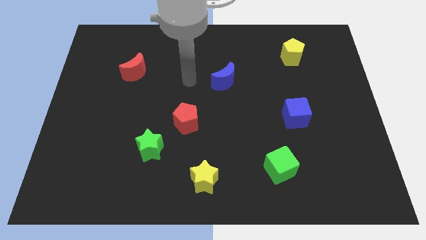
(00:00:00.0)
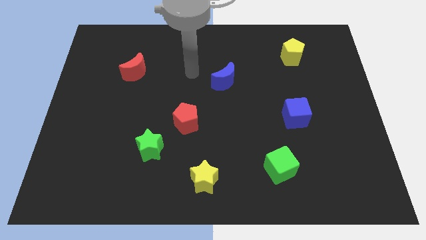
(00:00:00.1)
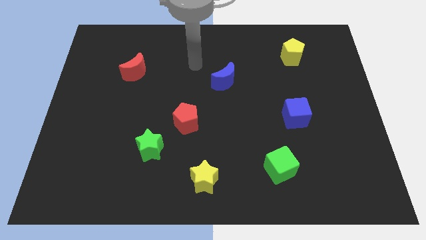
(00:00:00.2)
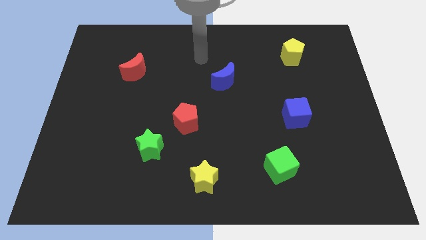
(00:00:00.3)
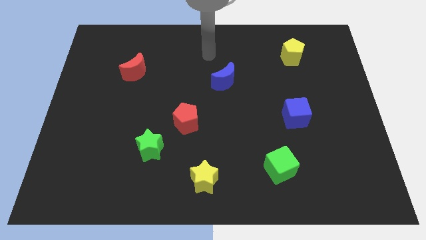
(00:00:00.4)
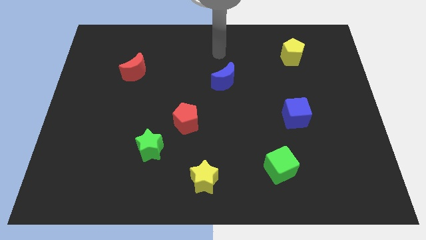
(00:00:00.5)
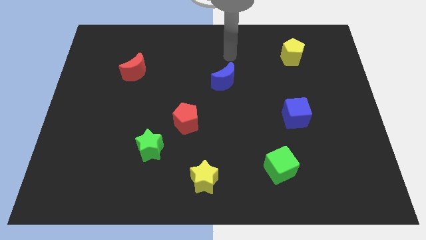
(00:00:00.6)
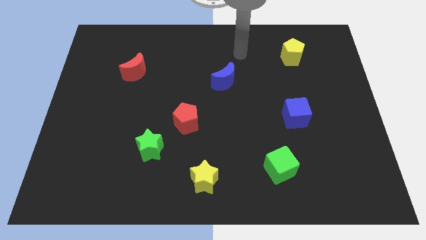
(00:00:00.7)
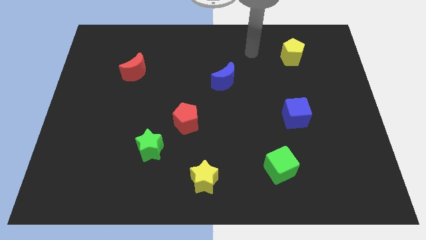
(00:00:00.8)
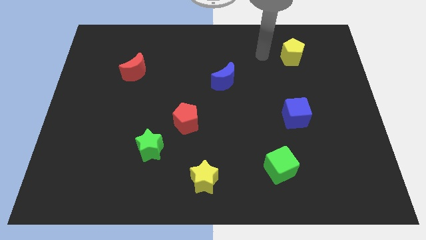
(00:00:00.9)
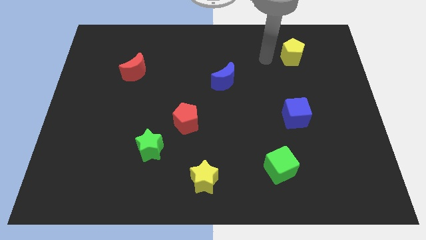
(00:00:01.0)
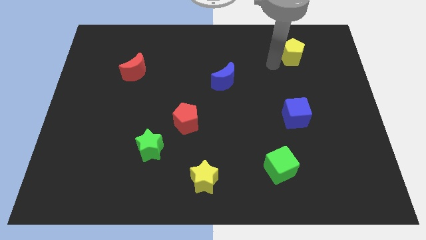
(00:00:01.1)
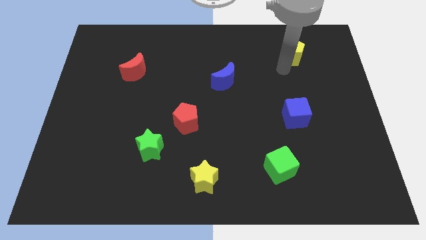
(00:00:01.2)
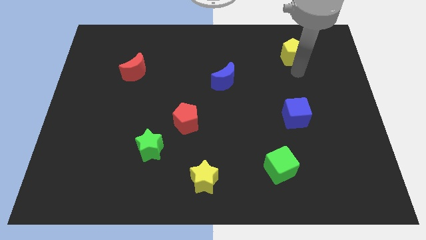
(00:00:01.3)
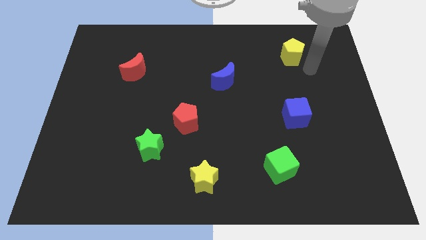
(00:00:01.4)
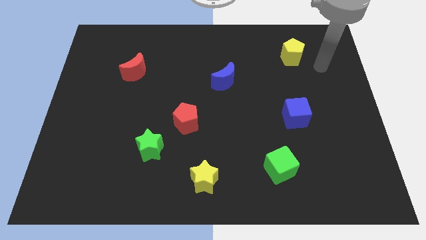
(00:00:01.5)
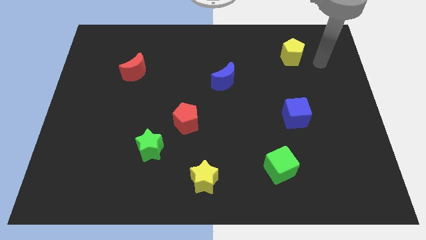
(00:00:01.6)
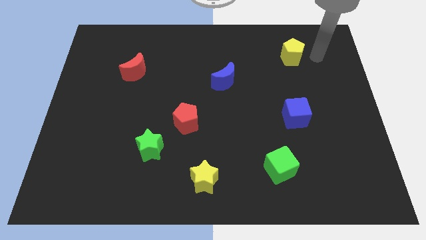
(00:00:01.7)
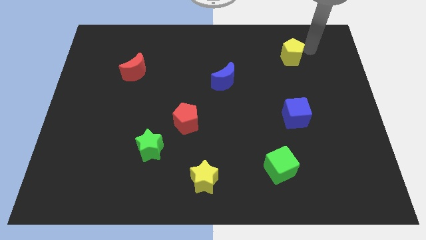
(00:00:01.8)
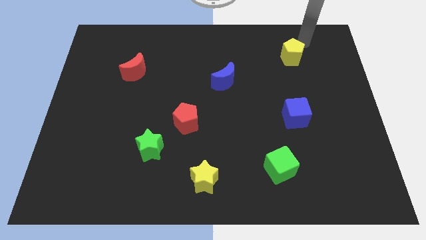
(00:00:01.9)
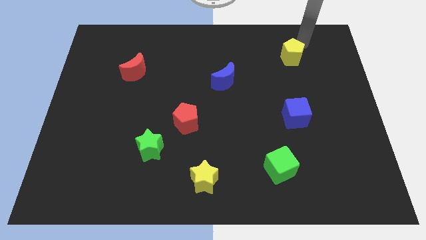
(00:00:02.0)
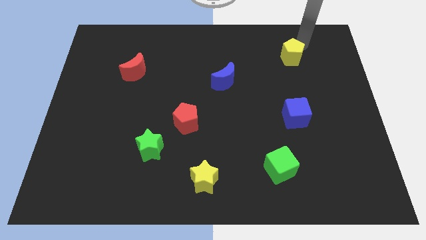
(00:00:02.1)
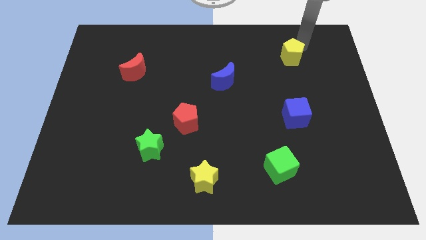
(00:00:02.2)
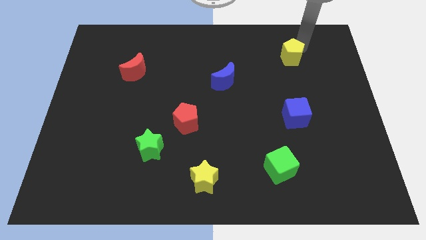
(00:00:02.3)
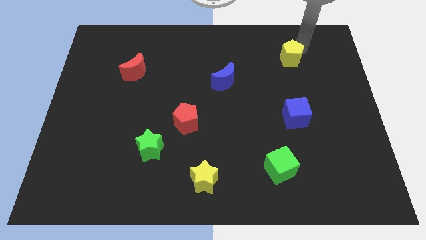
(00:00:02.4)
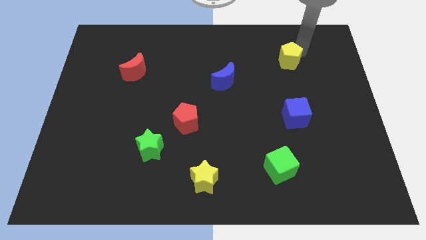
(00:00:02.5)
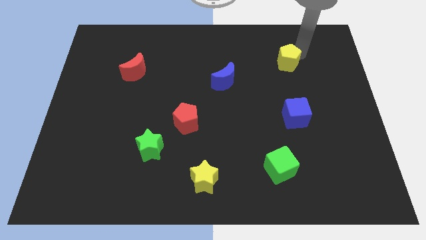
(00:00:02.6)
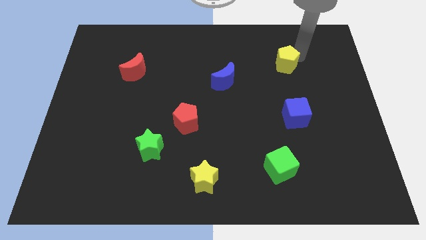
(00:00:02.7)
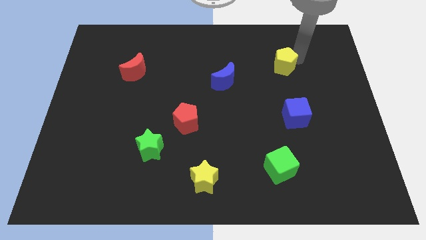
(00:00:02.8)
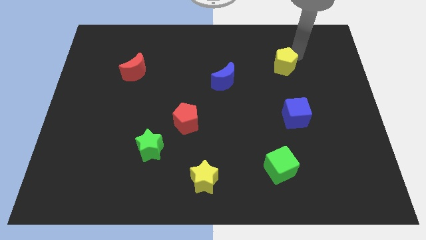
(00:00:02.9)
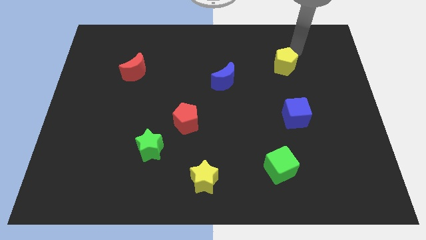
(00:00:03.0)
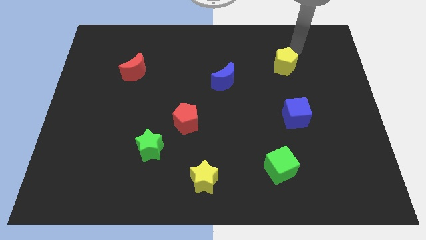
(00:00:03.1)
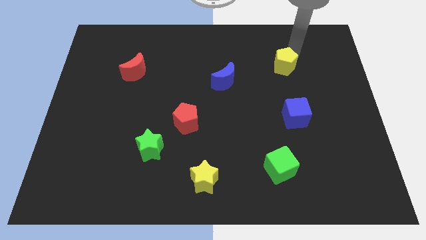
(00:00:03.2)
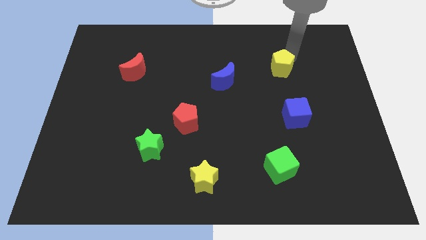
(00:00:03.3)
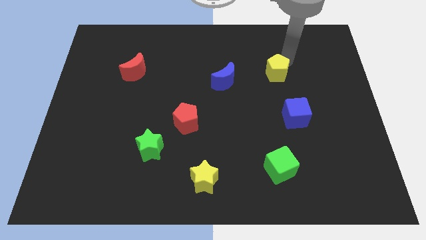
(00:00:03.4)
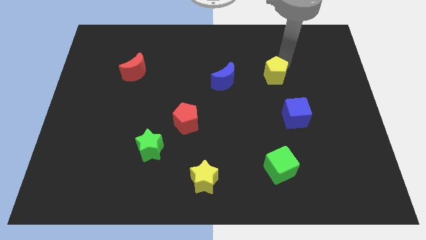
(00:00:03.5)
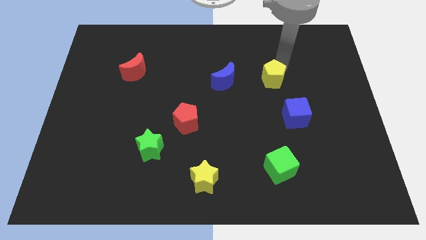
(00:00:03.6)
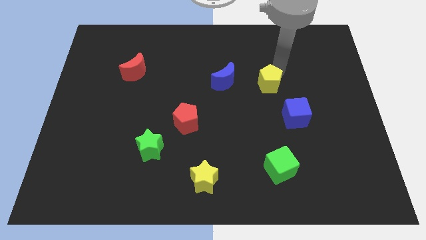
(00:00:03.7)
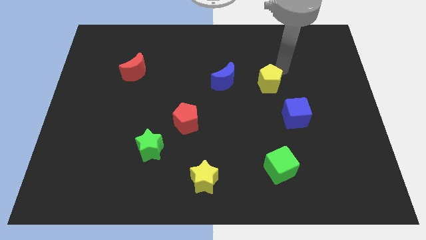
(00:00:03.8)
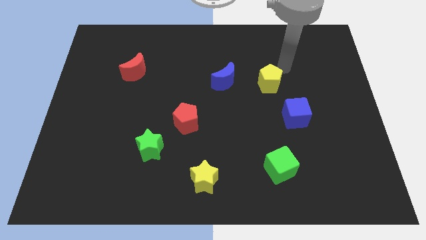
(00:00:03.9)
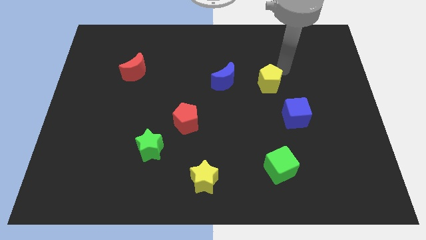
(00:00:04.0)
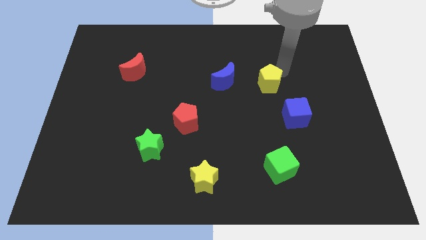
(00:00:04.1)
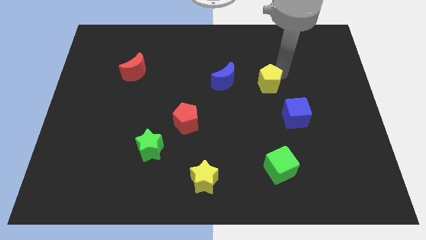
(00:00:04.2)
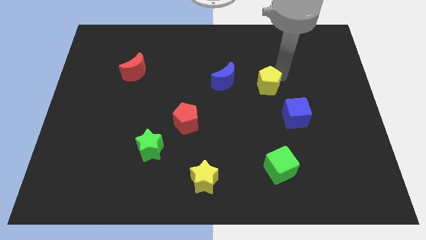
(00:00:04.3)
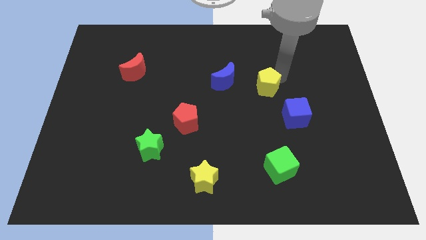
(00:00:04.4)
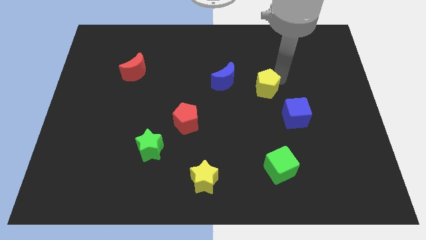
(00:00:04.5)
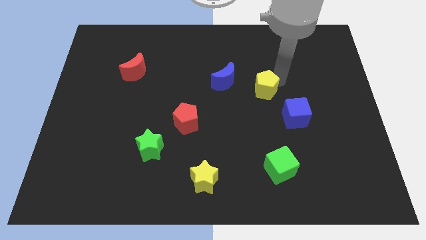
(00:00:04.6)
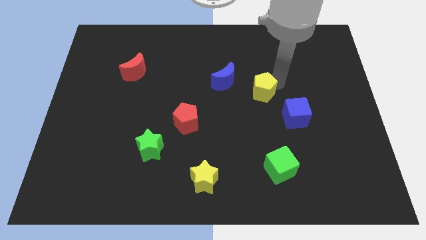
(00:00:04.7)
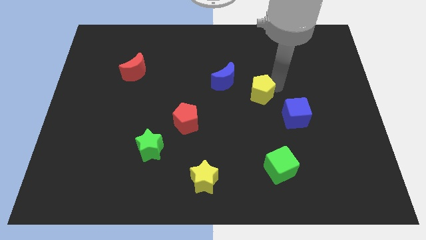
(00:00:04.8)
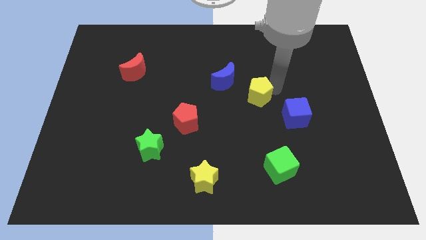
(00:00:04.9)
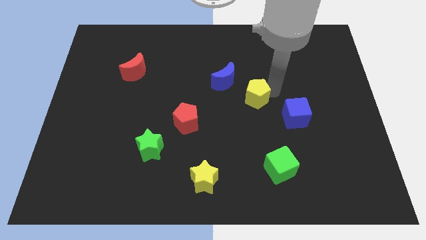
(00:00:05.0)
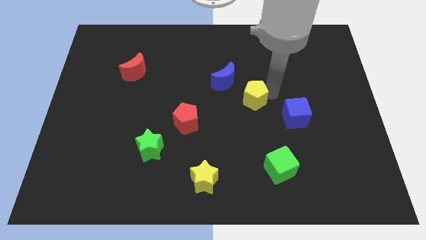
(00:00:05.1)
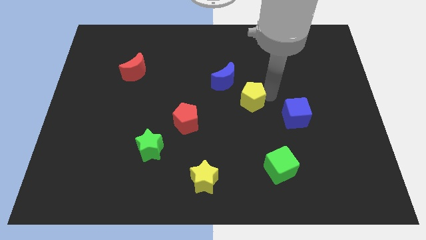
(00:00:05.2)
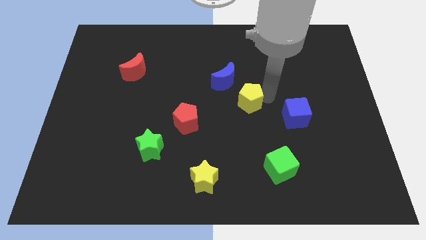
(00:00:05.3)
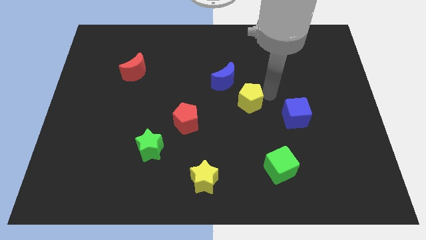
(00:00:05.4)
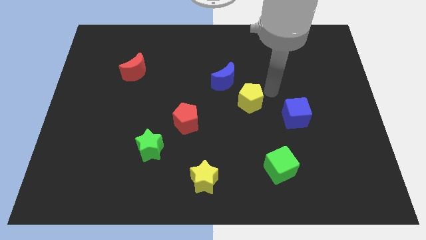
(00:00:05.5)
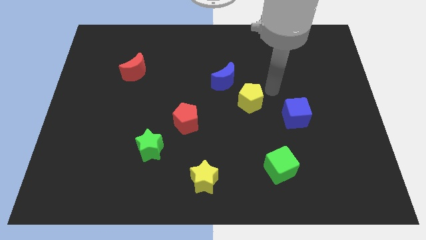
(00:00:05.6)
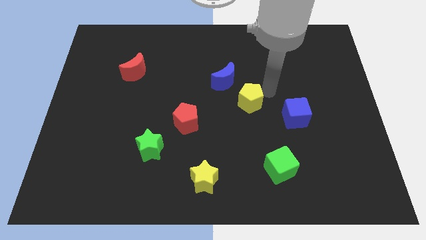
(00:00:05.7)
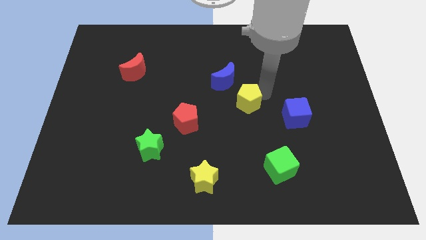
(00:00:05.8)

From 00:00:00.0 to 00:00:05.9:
move the yellow pentagon diagonally downwards and to the left

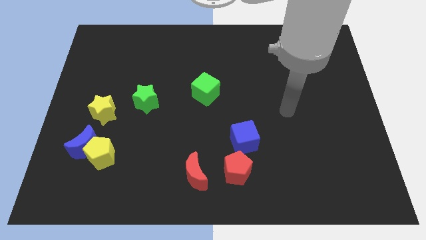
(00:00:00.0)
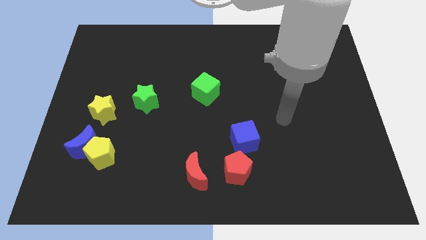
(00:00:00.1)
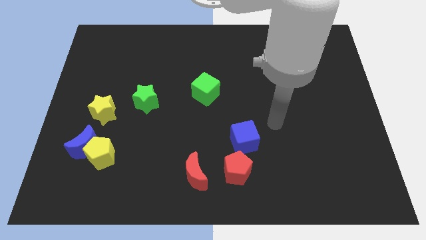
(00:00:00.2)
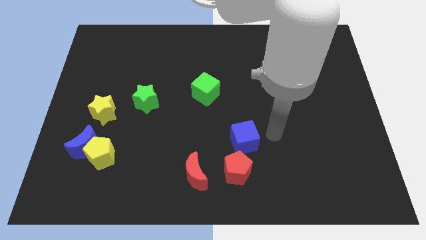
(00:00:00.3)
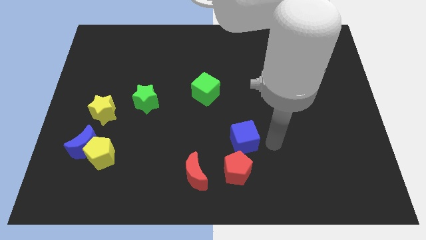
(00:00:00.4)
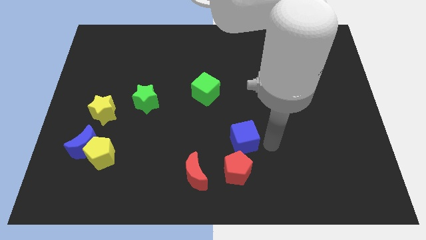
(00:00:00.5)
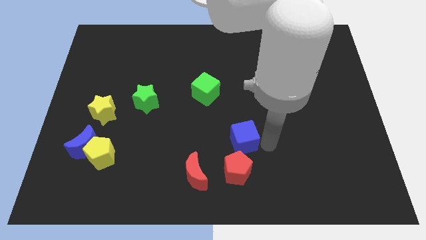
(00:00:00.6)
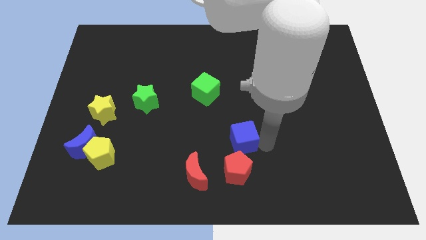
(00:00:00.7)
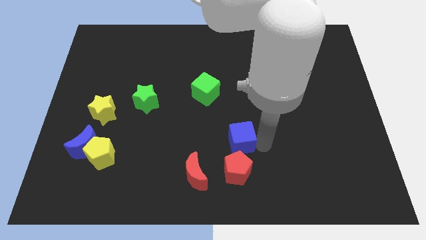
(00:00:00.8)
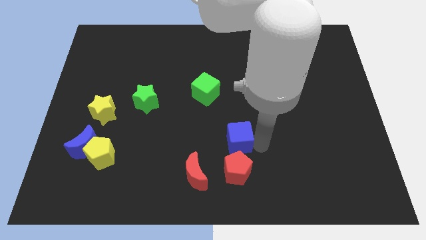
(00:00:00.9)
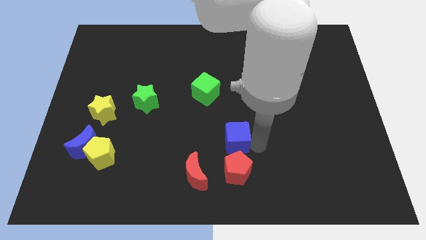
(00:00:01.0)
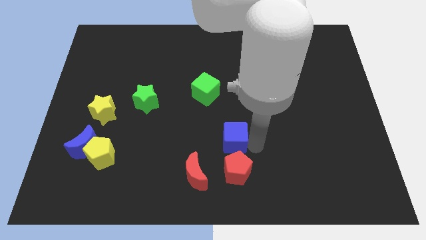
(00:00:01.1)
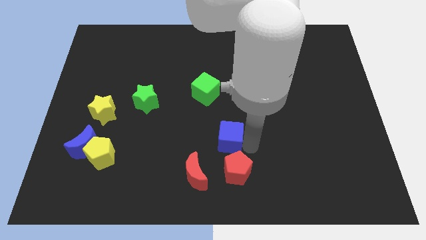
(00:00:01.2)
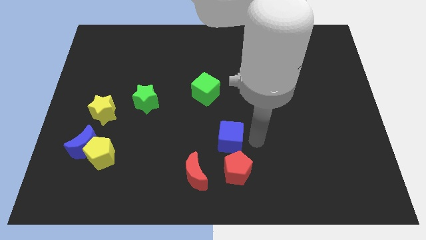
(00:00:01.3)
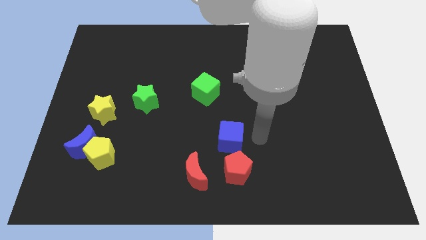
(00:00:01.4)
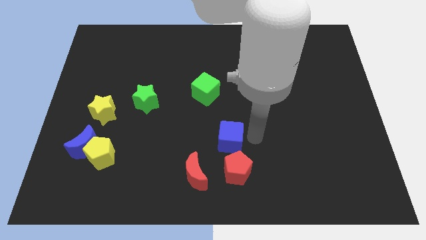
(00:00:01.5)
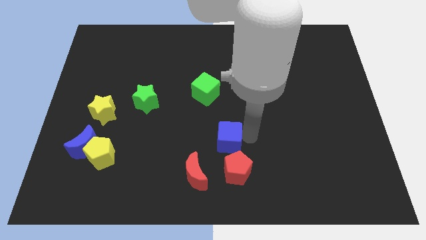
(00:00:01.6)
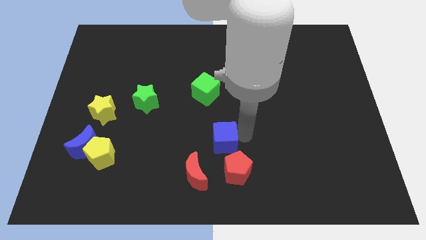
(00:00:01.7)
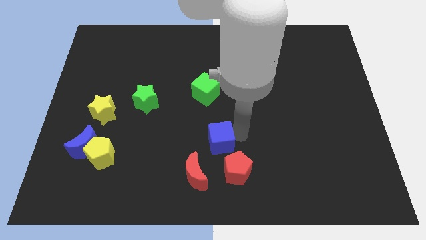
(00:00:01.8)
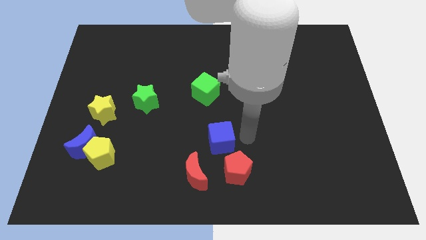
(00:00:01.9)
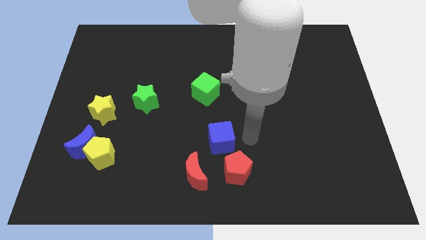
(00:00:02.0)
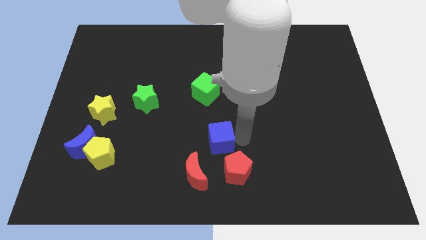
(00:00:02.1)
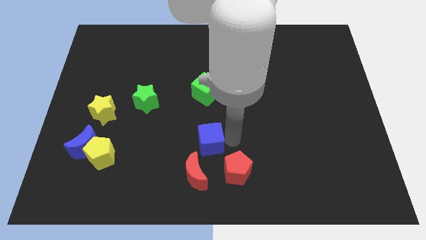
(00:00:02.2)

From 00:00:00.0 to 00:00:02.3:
move the blue cube to the left somewhat
